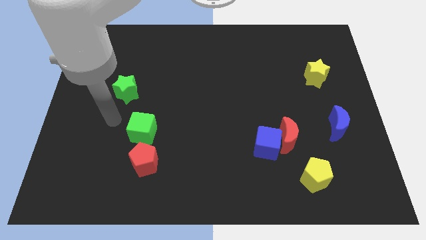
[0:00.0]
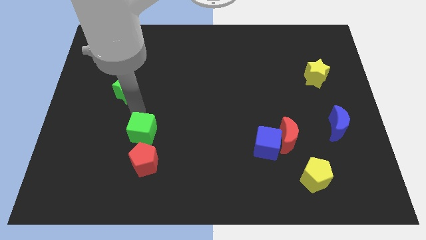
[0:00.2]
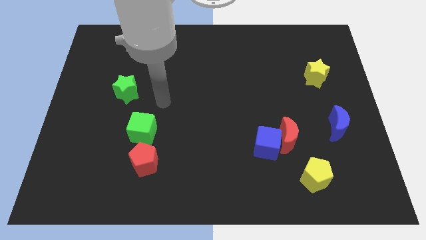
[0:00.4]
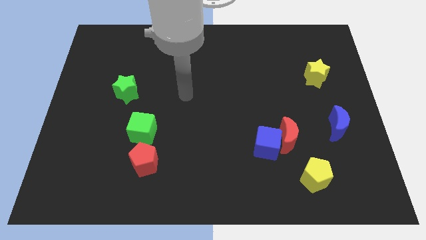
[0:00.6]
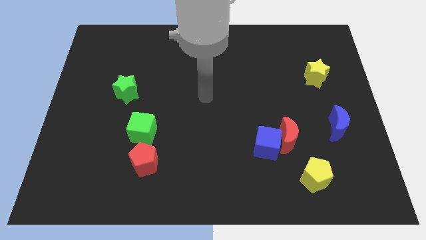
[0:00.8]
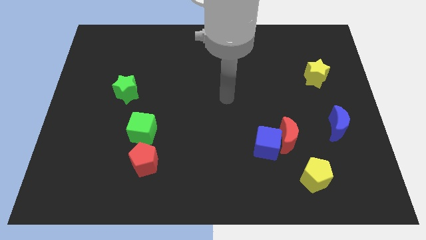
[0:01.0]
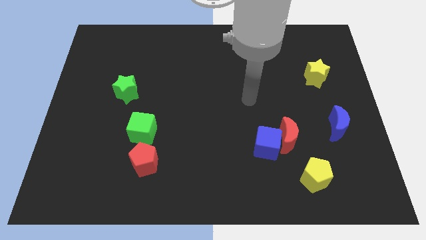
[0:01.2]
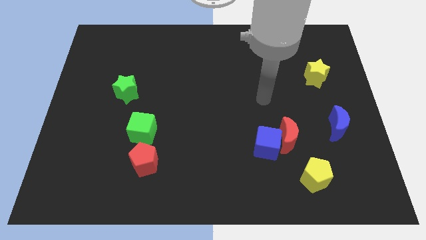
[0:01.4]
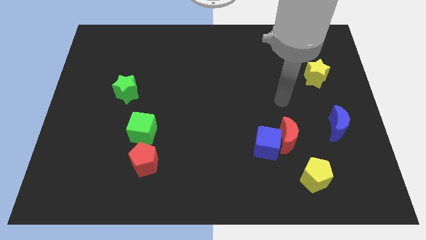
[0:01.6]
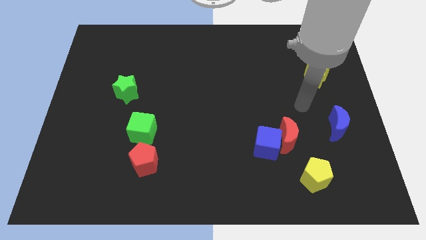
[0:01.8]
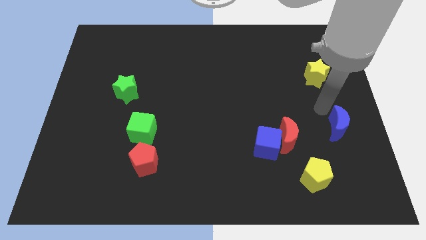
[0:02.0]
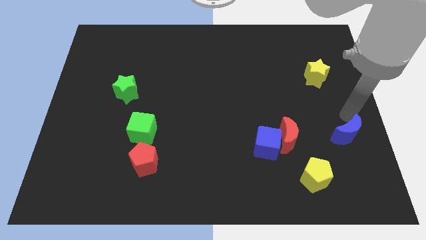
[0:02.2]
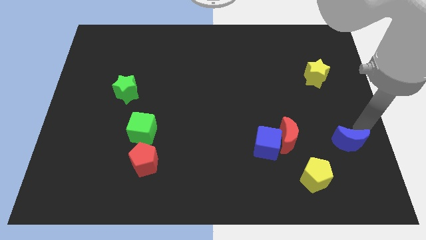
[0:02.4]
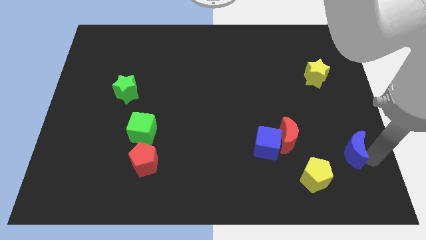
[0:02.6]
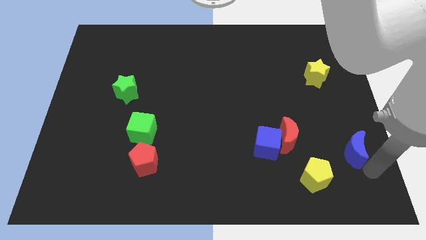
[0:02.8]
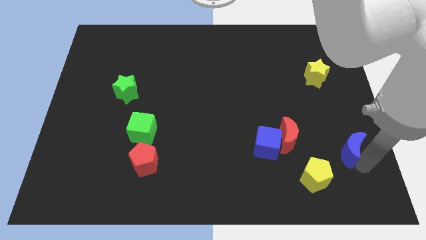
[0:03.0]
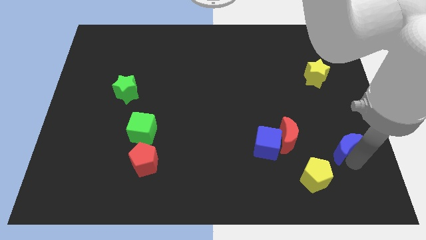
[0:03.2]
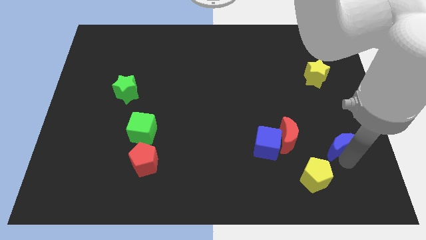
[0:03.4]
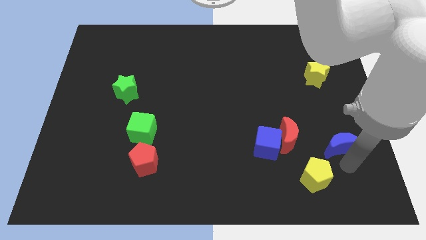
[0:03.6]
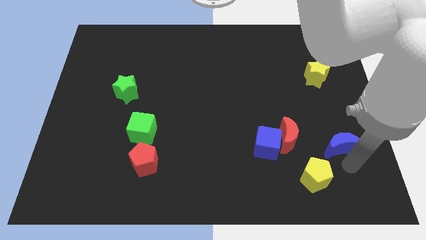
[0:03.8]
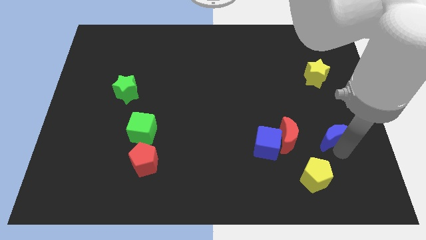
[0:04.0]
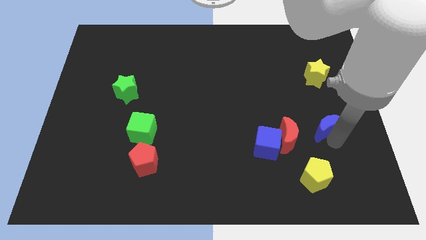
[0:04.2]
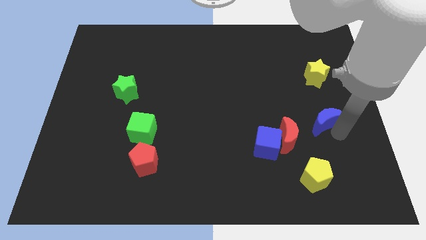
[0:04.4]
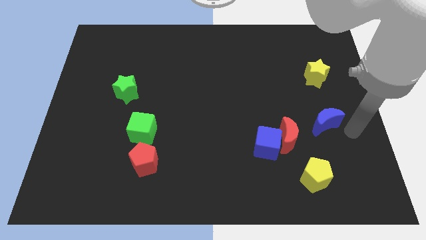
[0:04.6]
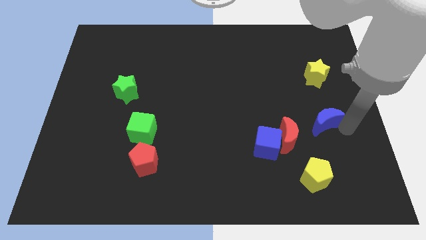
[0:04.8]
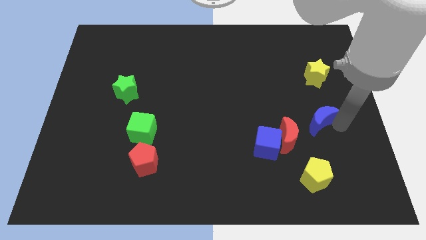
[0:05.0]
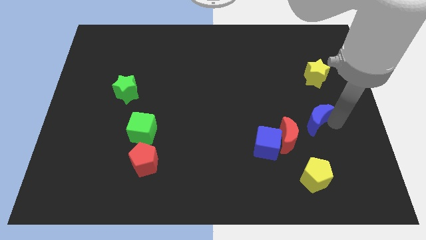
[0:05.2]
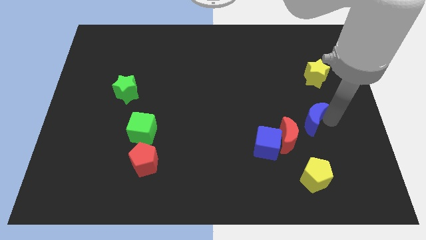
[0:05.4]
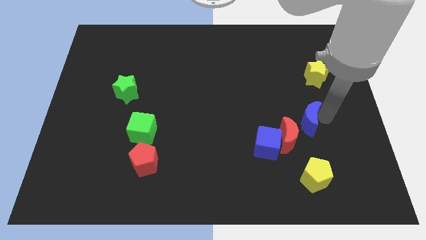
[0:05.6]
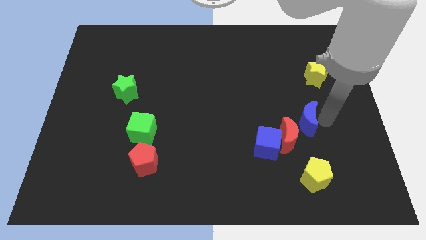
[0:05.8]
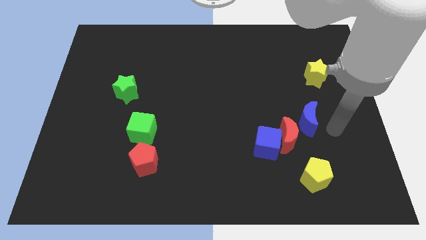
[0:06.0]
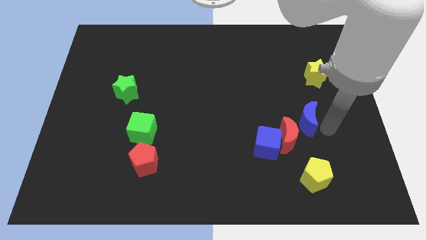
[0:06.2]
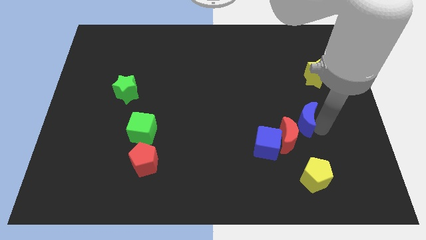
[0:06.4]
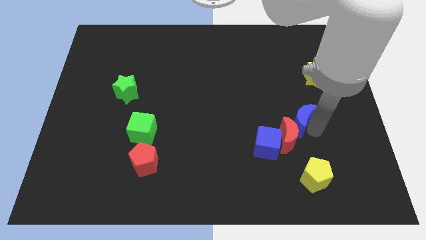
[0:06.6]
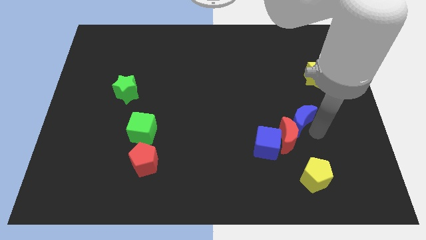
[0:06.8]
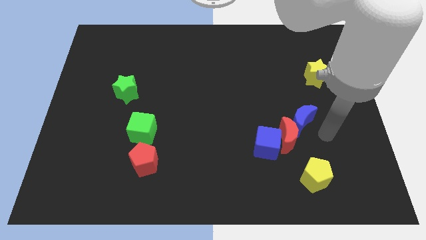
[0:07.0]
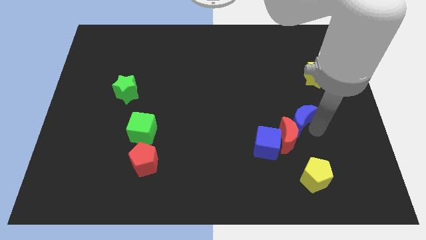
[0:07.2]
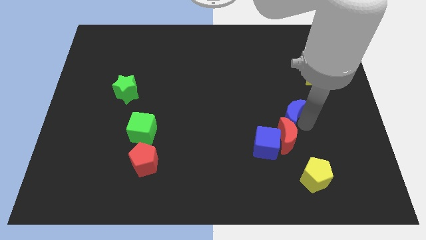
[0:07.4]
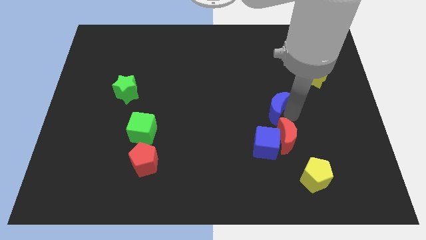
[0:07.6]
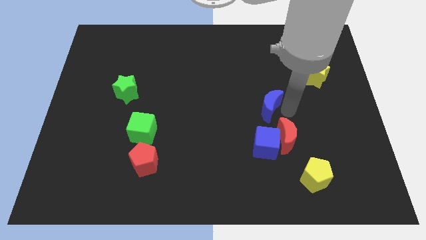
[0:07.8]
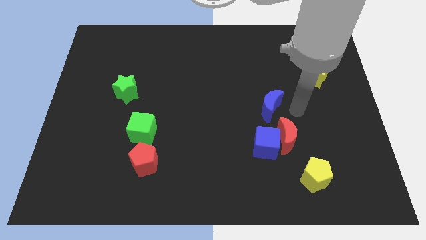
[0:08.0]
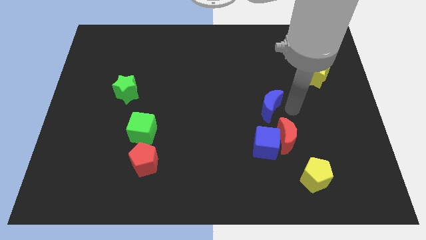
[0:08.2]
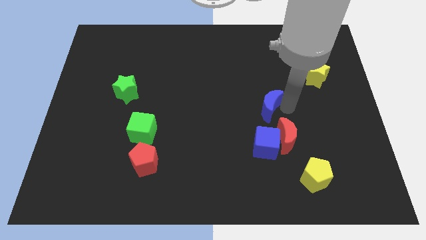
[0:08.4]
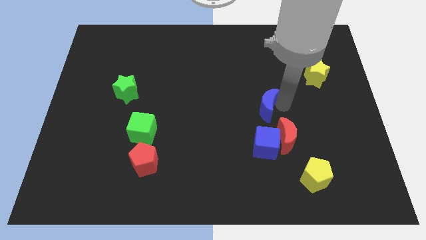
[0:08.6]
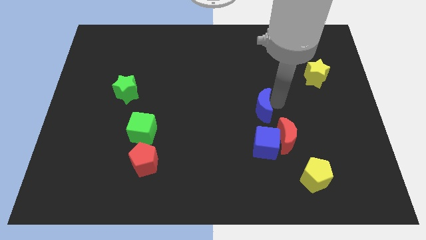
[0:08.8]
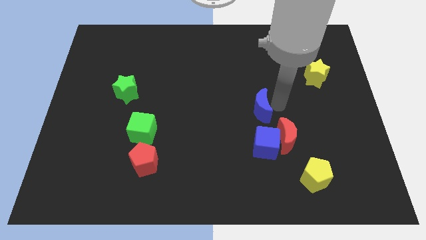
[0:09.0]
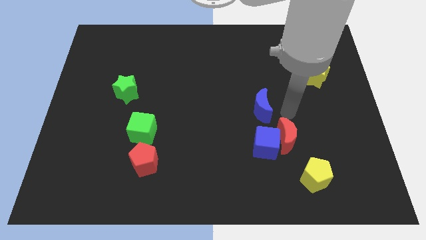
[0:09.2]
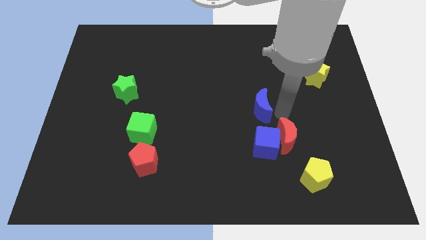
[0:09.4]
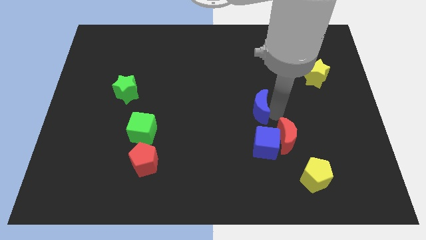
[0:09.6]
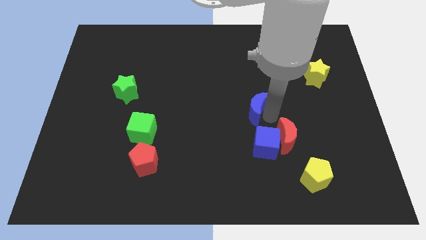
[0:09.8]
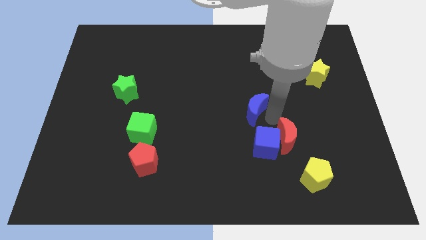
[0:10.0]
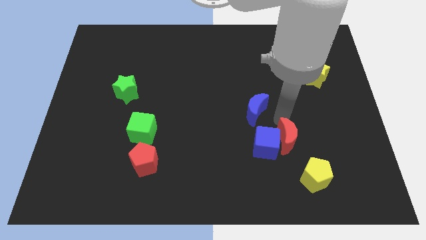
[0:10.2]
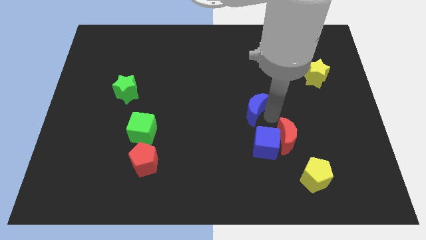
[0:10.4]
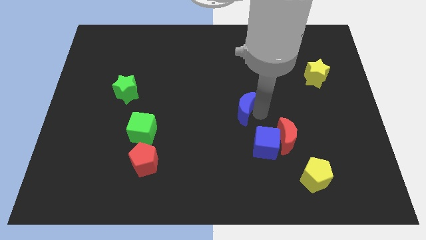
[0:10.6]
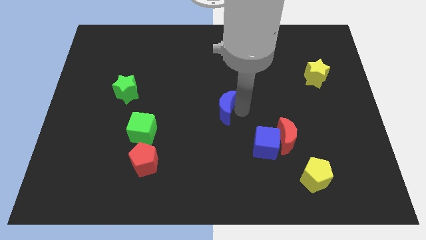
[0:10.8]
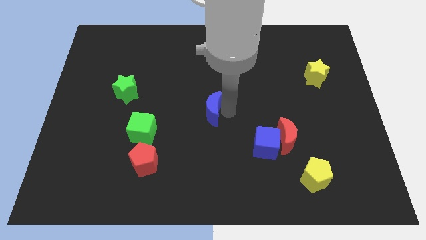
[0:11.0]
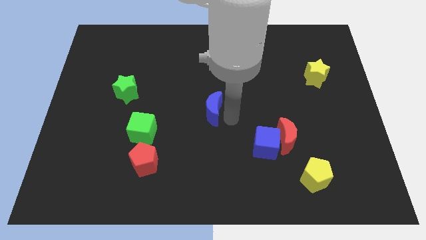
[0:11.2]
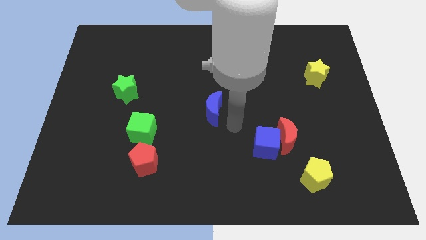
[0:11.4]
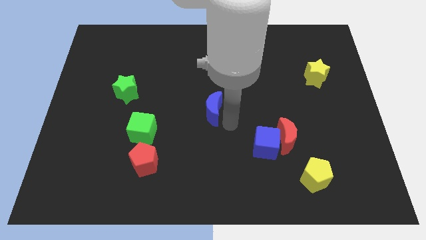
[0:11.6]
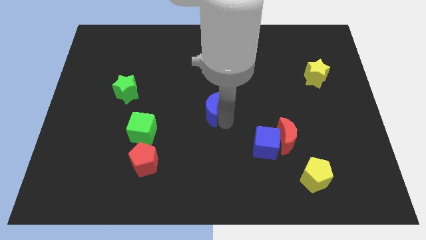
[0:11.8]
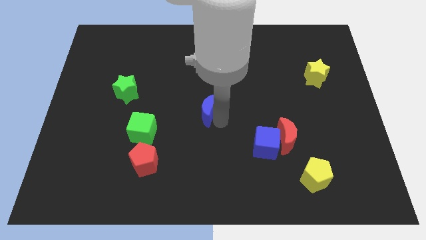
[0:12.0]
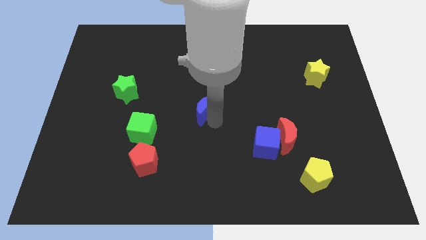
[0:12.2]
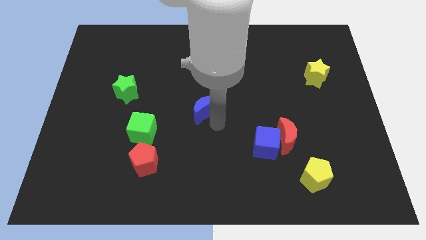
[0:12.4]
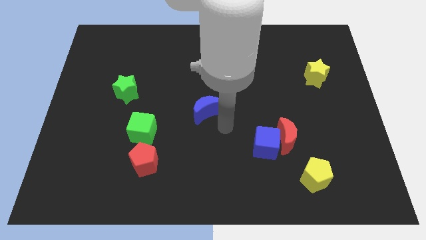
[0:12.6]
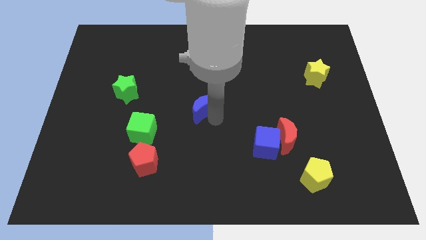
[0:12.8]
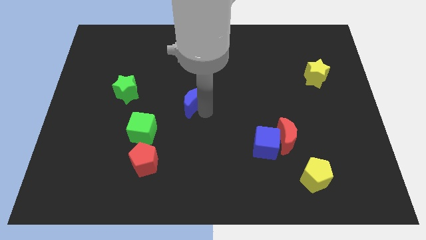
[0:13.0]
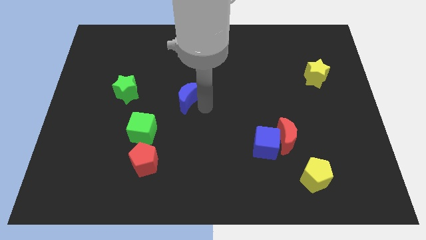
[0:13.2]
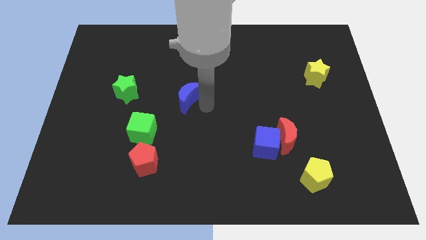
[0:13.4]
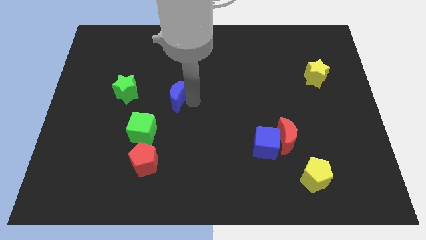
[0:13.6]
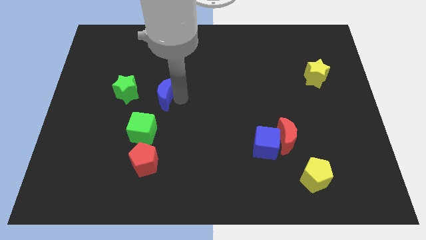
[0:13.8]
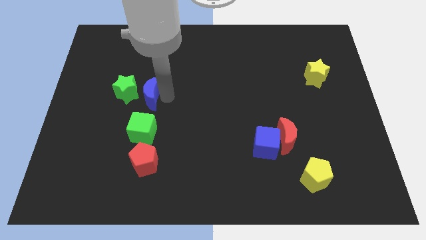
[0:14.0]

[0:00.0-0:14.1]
move the blue moon next to the green star

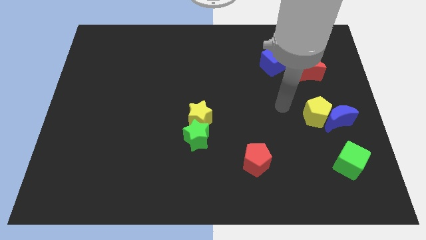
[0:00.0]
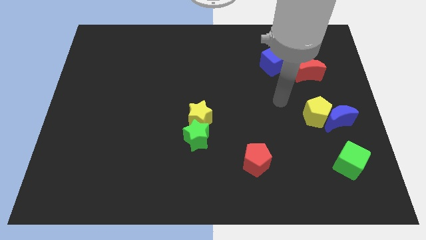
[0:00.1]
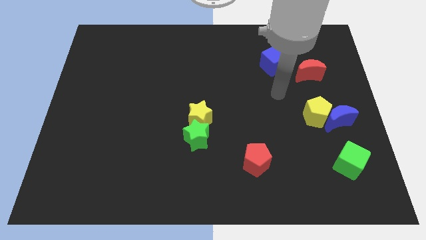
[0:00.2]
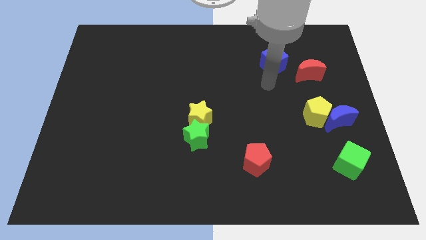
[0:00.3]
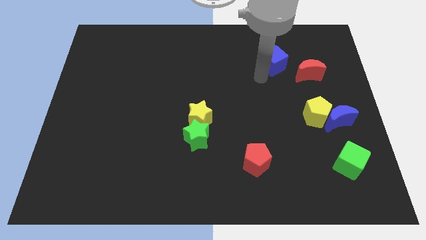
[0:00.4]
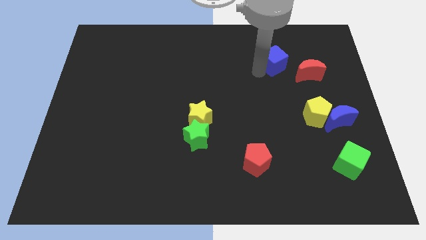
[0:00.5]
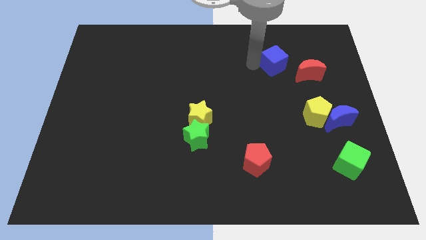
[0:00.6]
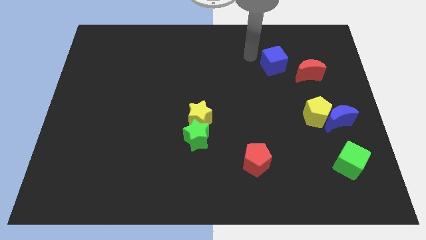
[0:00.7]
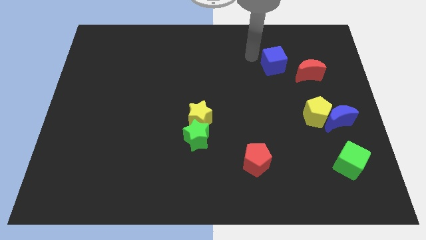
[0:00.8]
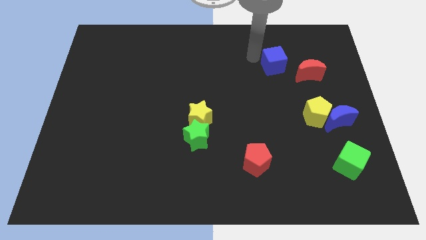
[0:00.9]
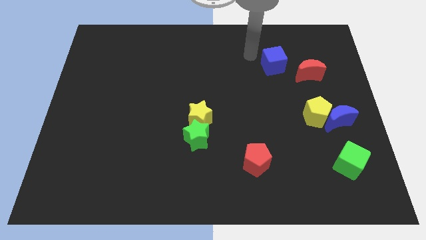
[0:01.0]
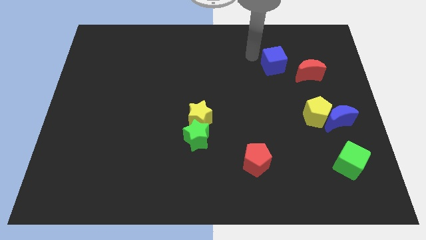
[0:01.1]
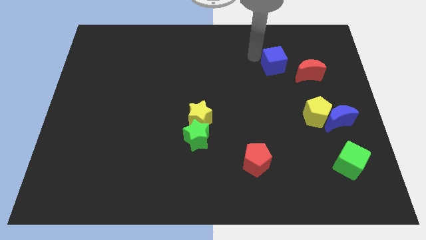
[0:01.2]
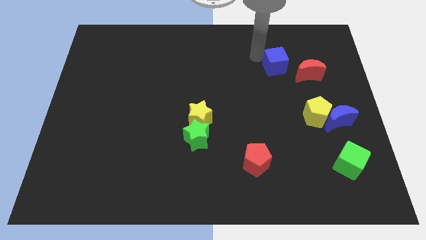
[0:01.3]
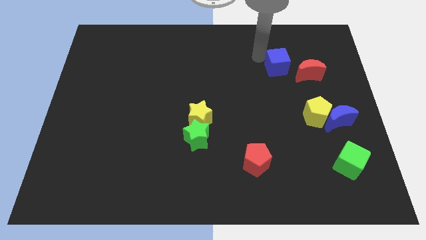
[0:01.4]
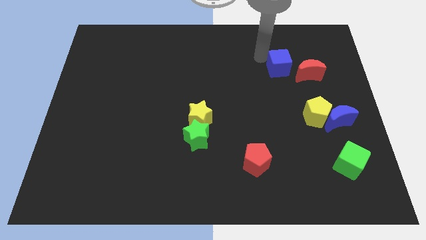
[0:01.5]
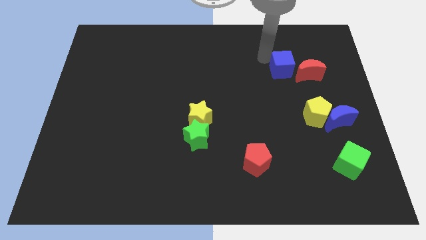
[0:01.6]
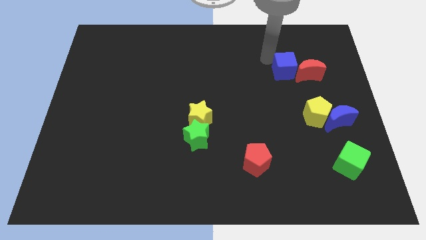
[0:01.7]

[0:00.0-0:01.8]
put the blue cube to the red moon
